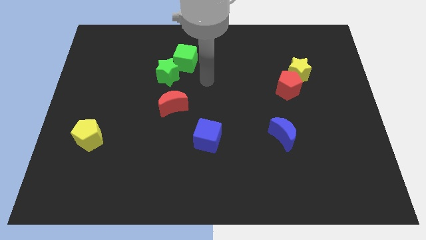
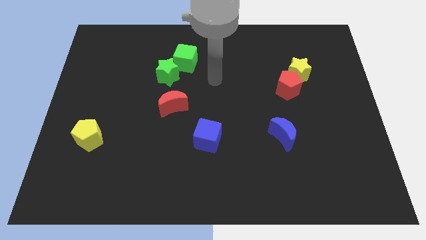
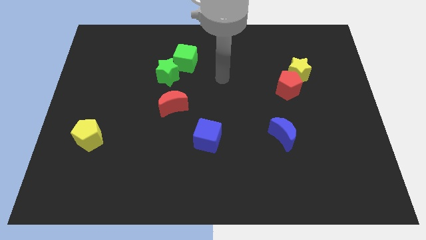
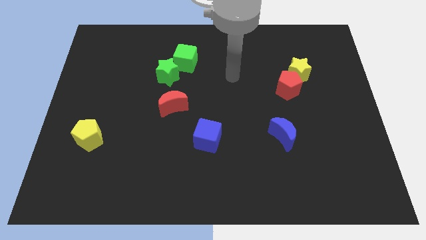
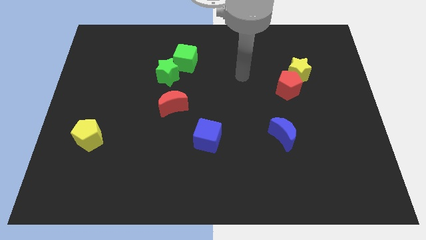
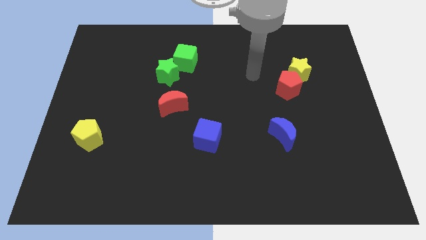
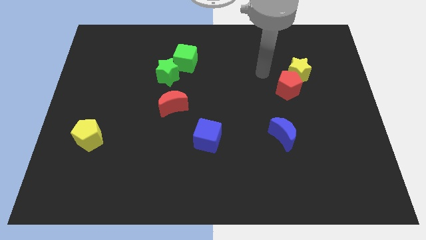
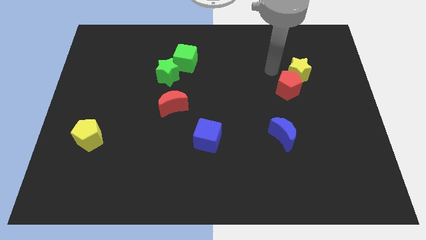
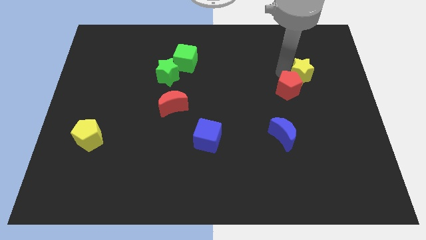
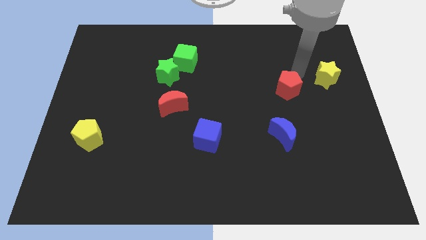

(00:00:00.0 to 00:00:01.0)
pull the red pentagon apart from the yellow star

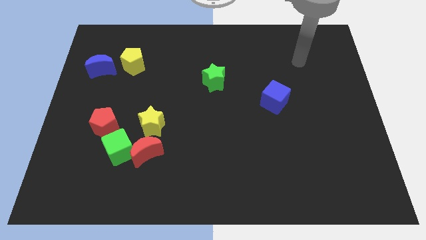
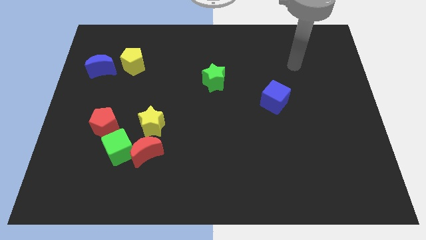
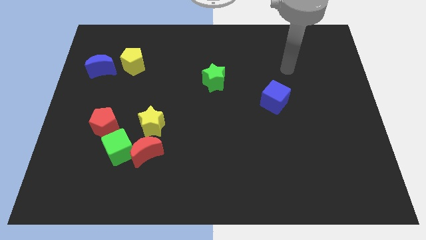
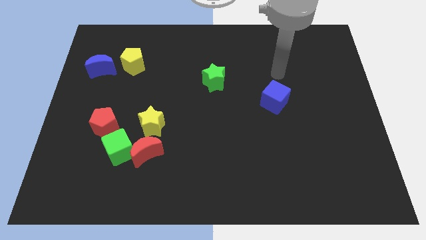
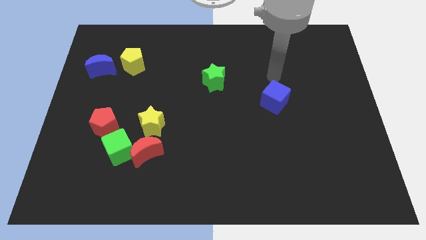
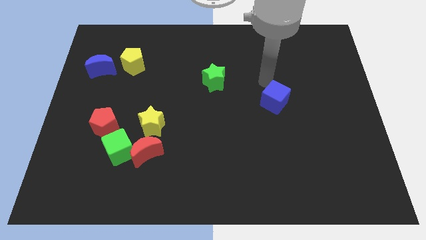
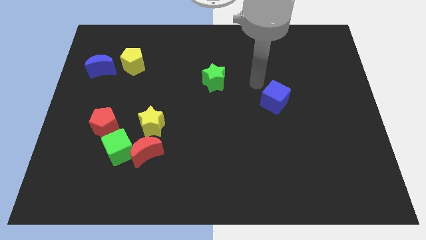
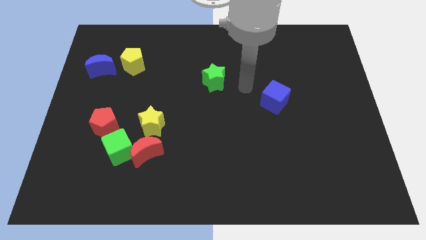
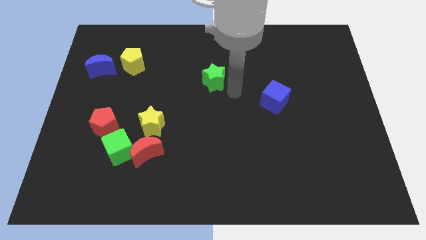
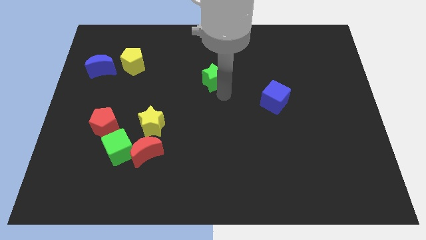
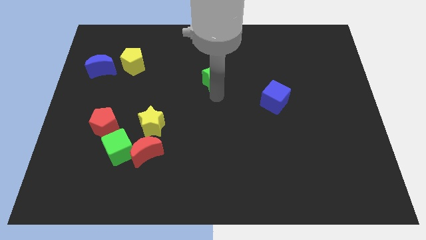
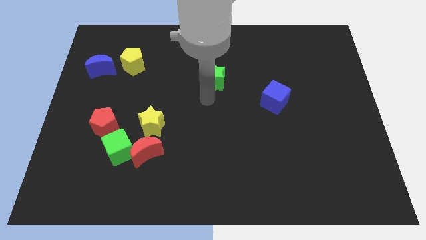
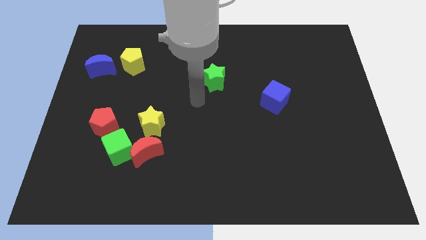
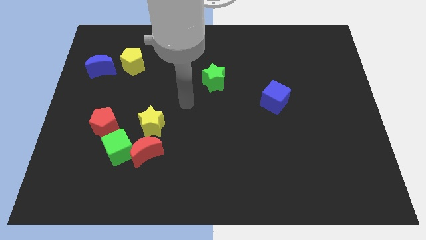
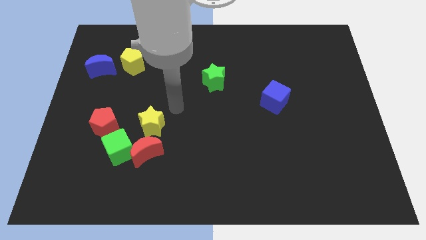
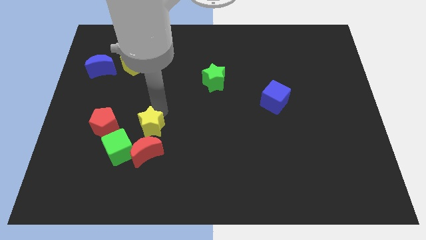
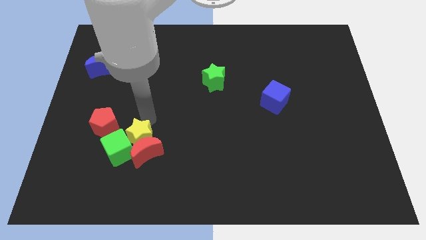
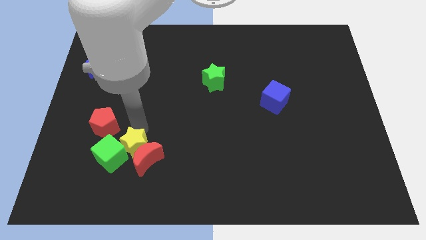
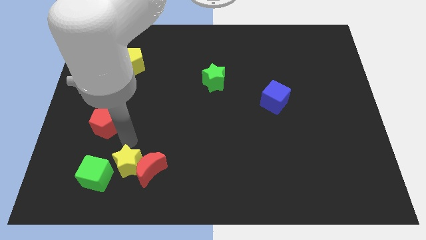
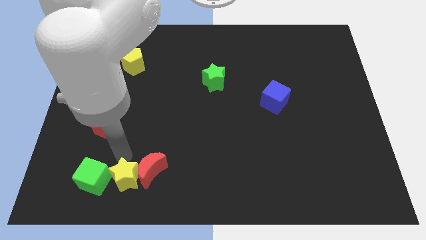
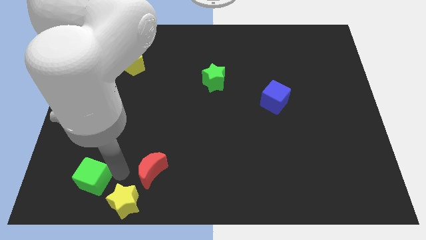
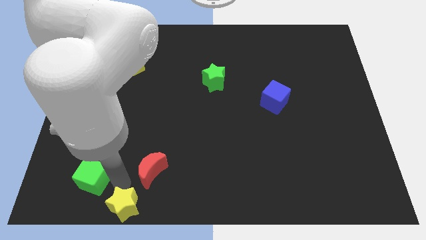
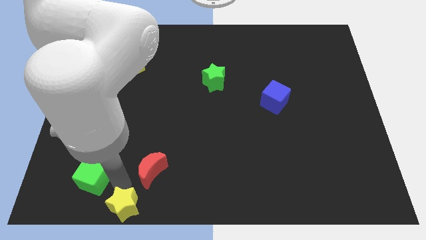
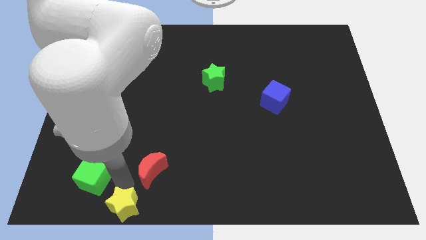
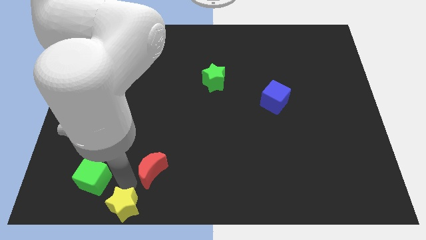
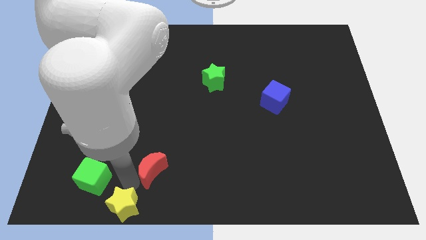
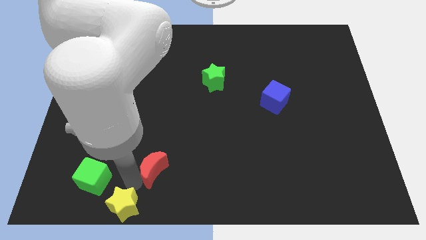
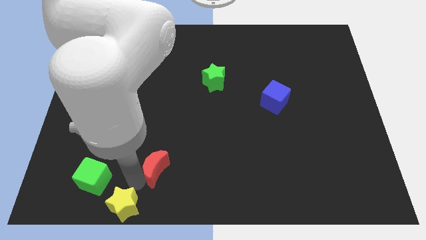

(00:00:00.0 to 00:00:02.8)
move the red moon away from the green cube and yellow star

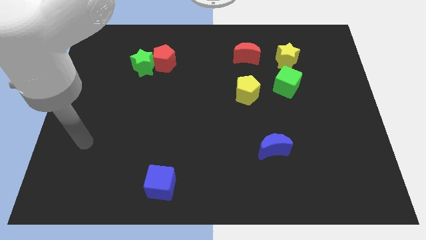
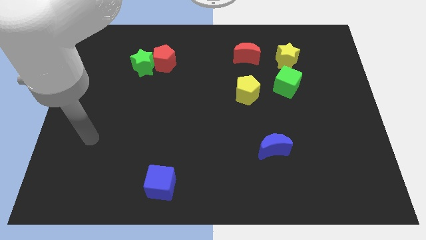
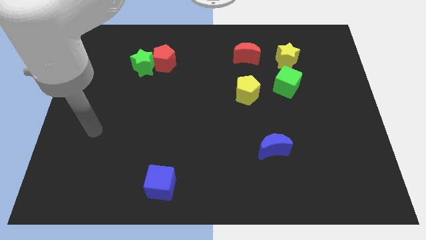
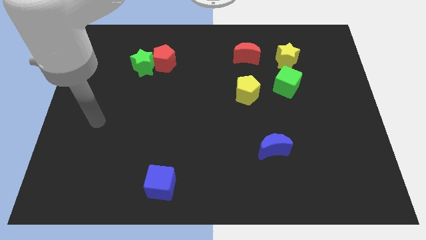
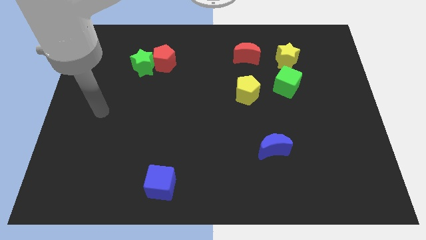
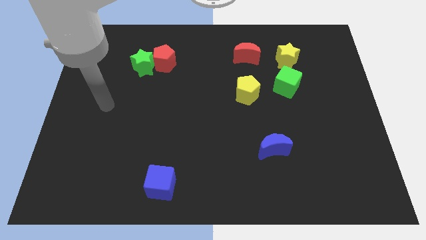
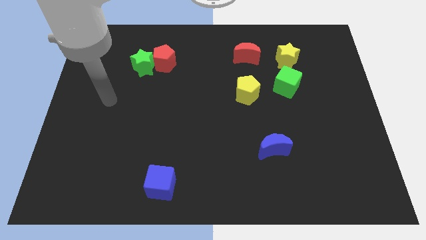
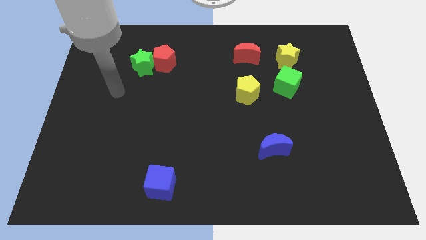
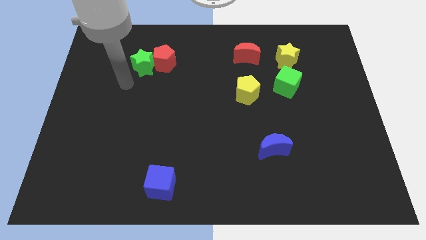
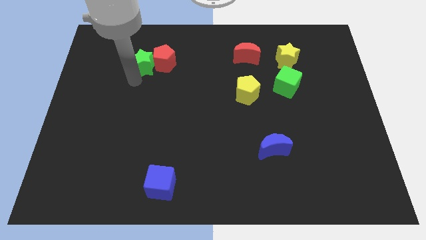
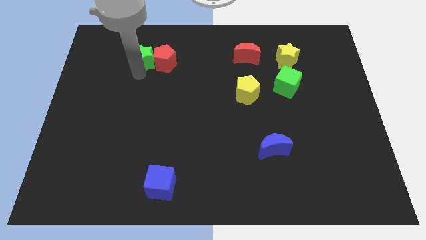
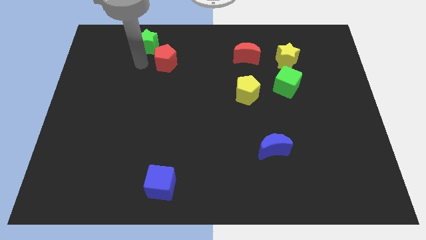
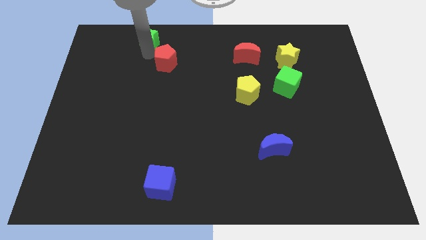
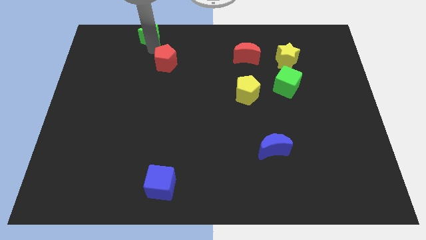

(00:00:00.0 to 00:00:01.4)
pull the red pentagon apart from the green star

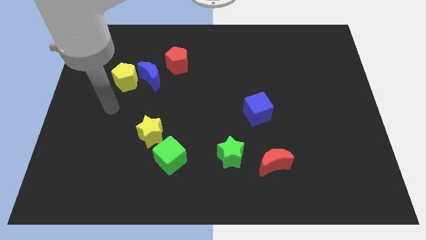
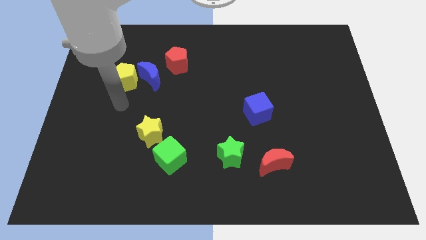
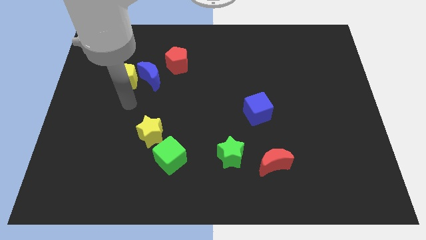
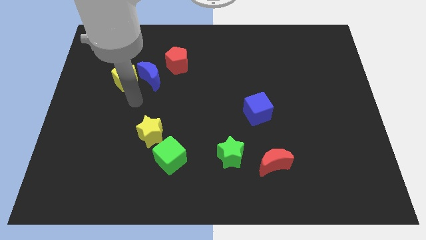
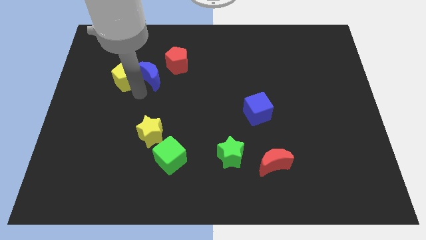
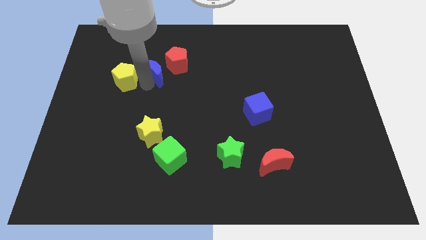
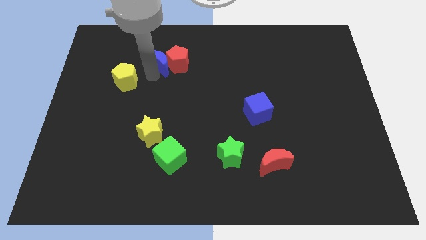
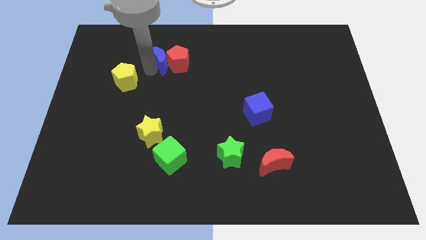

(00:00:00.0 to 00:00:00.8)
separate the yellow pentagon from the blue moon

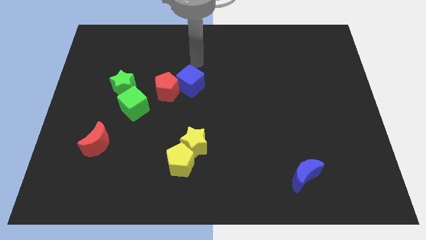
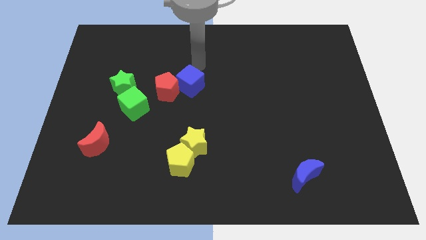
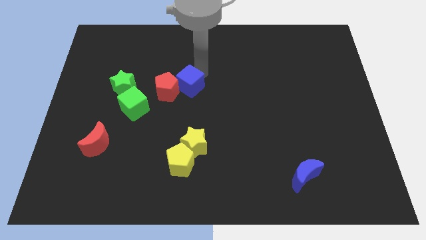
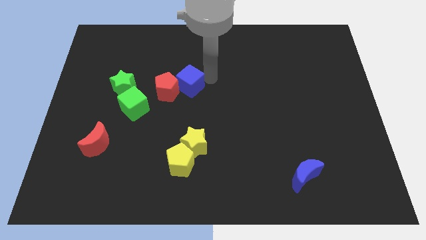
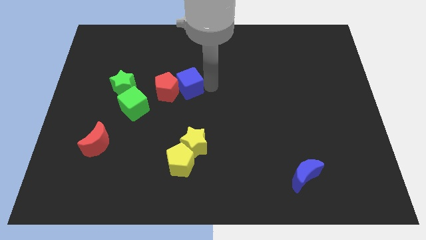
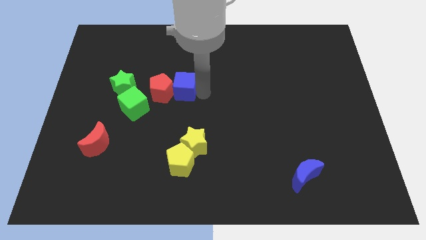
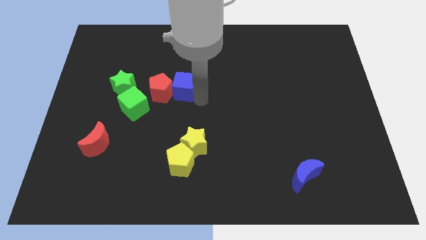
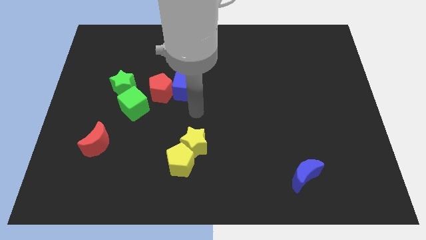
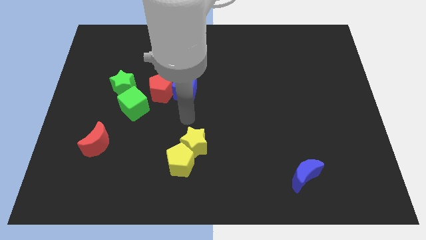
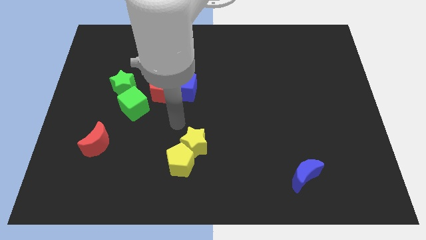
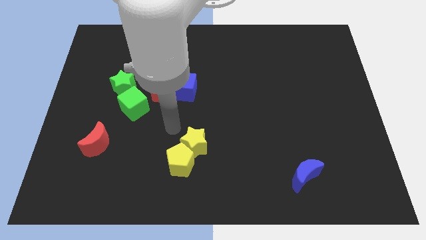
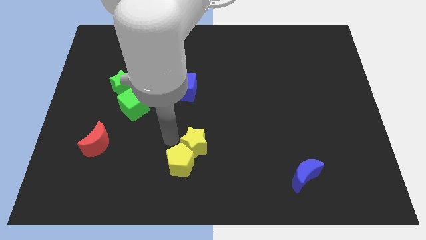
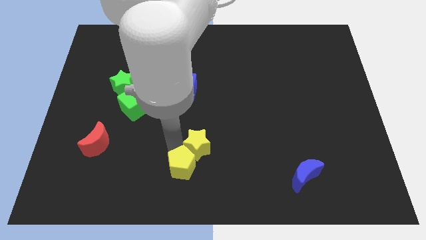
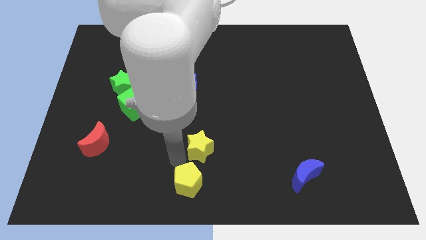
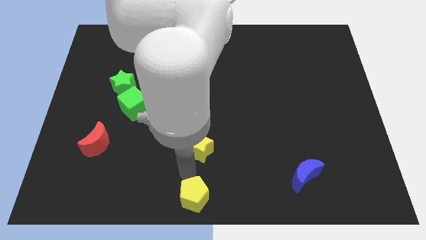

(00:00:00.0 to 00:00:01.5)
separate the yellow star from the yellow pentagon

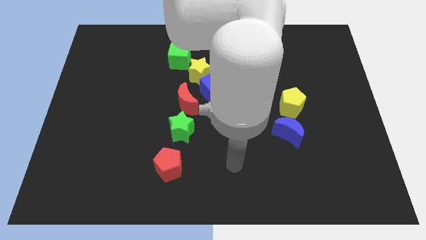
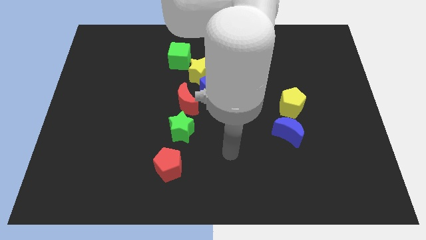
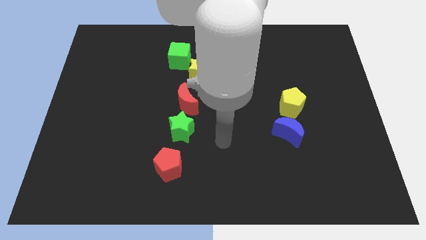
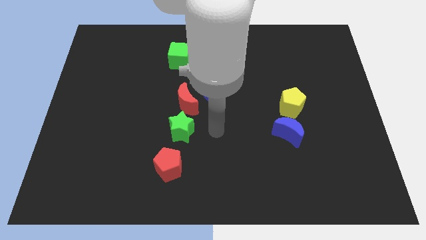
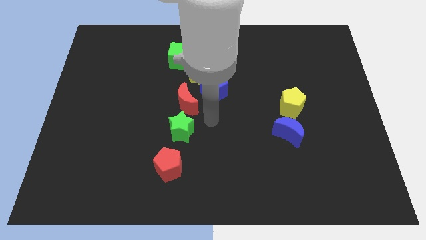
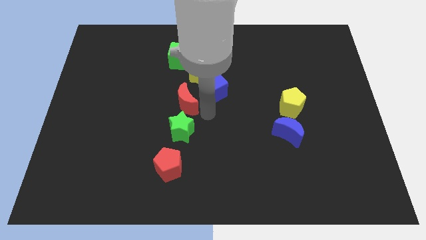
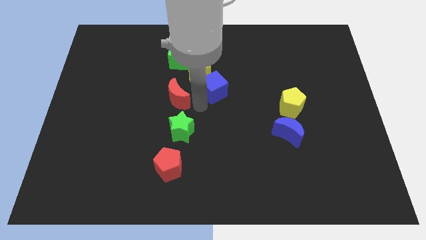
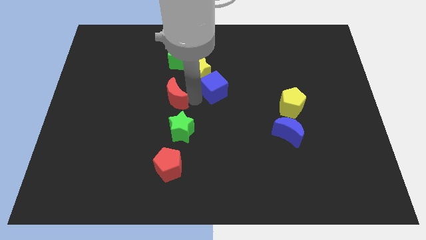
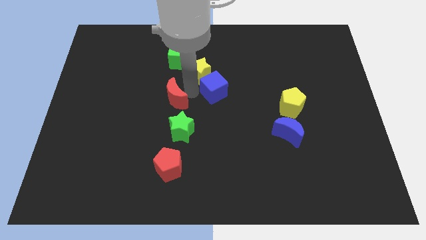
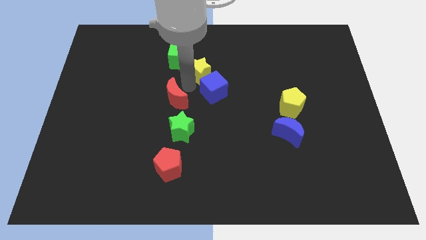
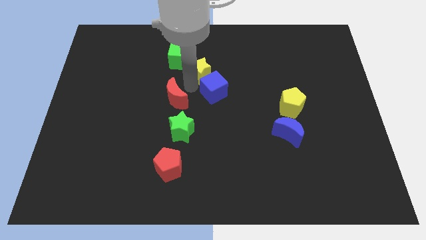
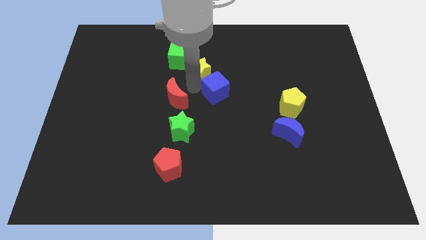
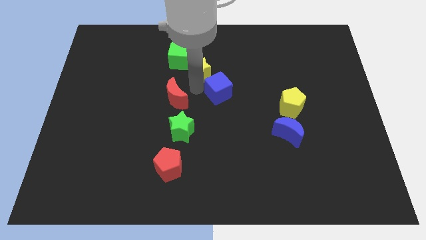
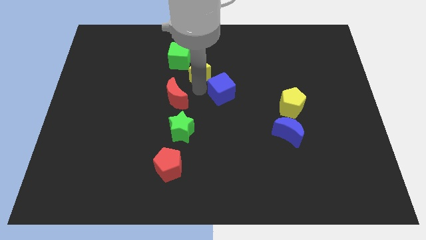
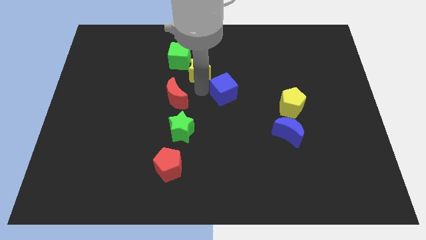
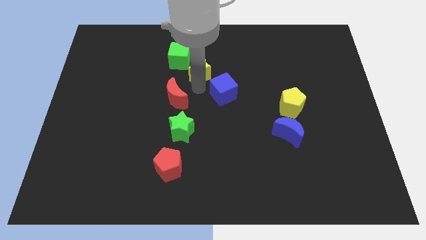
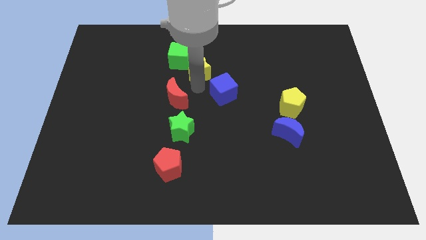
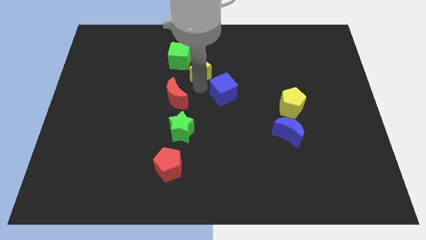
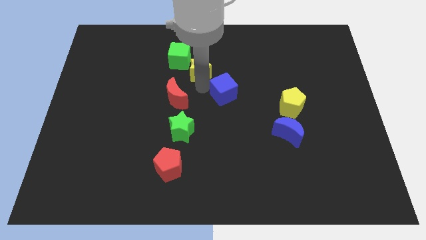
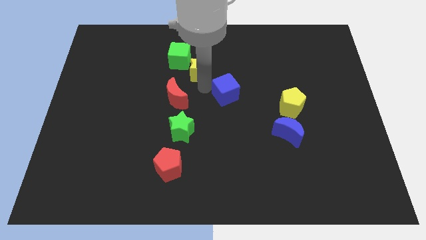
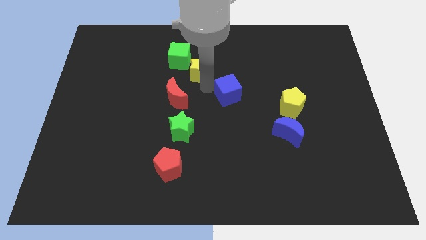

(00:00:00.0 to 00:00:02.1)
move the blue cube away from the yellow star and red moon
